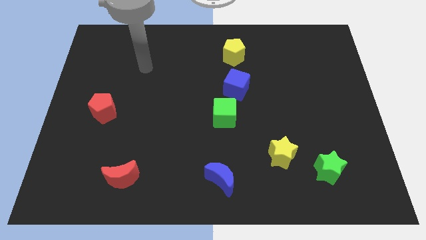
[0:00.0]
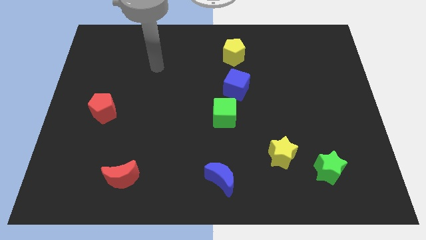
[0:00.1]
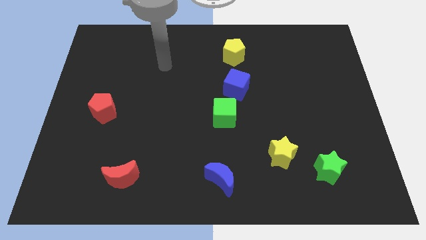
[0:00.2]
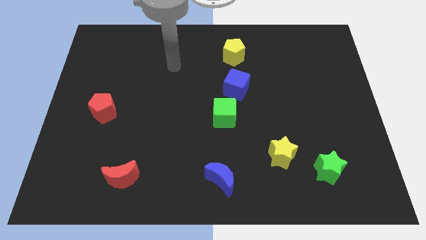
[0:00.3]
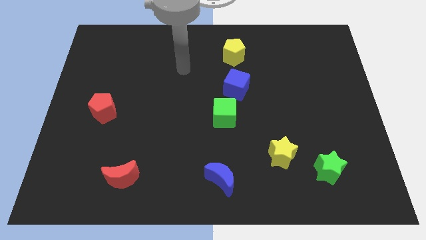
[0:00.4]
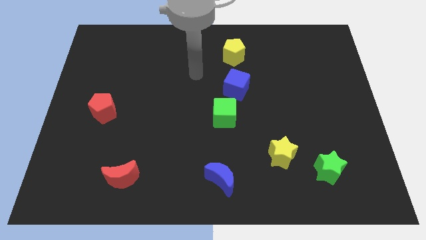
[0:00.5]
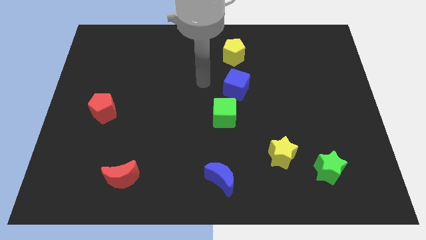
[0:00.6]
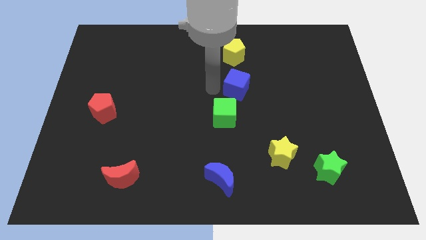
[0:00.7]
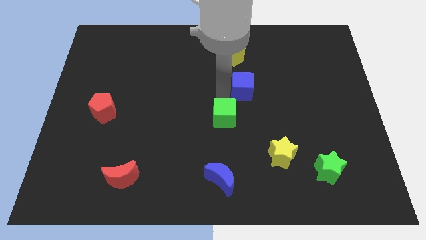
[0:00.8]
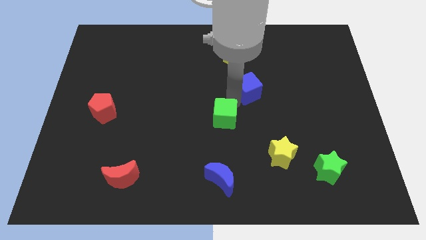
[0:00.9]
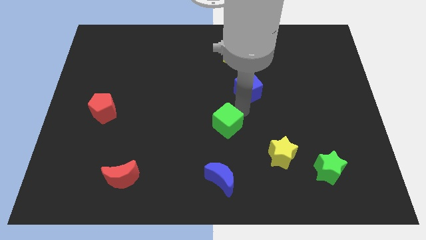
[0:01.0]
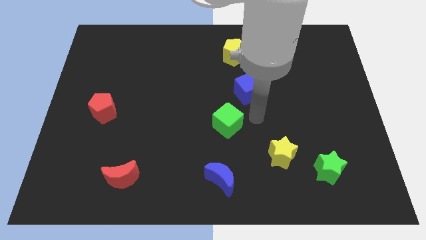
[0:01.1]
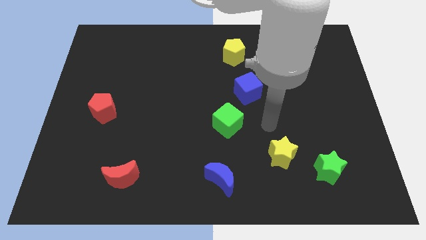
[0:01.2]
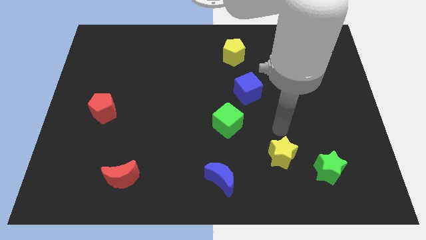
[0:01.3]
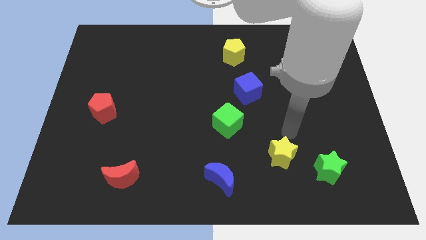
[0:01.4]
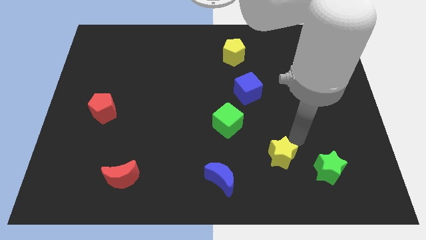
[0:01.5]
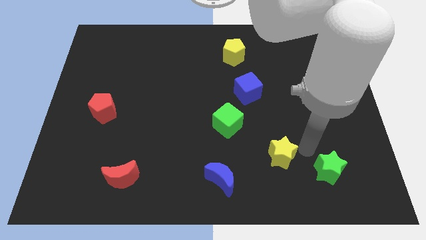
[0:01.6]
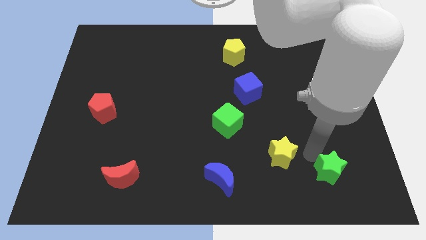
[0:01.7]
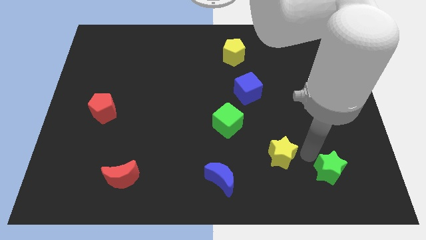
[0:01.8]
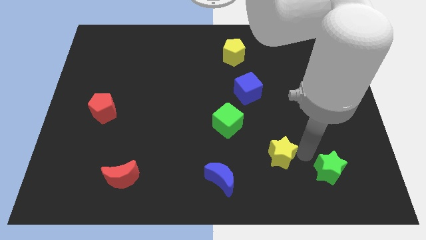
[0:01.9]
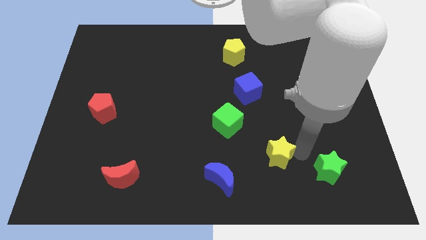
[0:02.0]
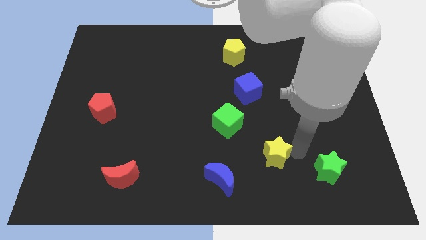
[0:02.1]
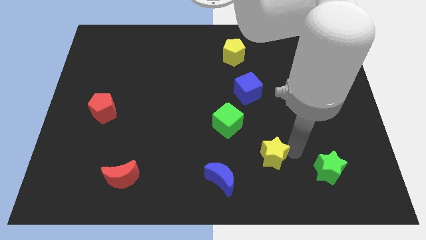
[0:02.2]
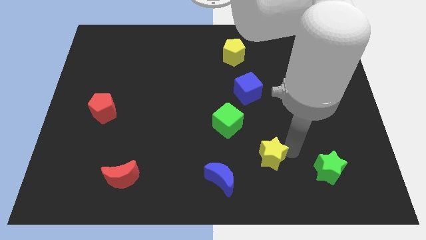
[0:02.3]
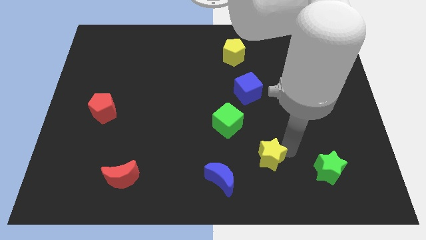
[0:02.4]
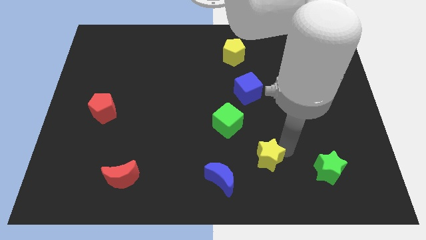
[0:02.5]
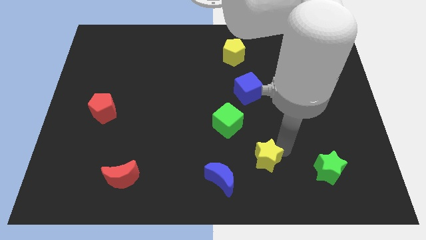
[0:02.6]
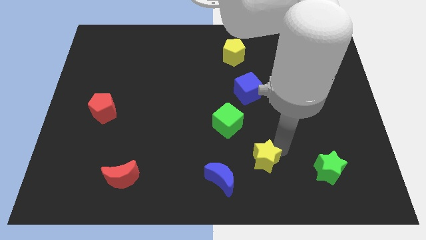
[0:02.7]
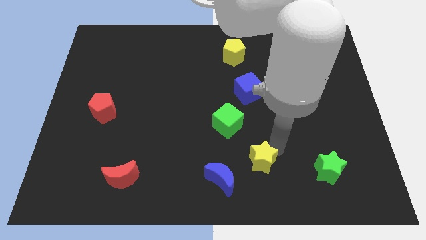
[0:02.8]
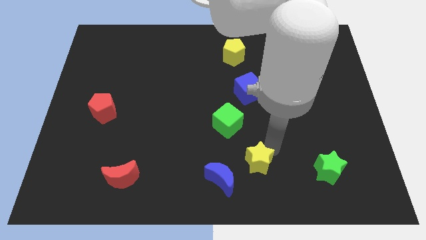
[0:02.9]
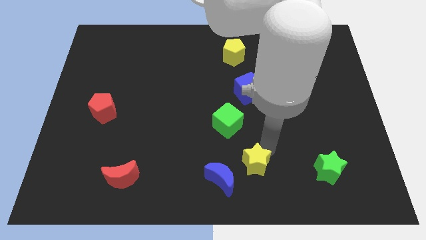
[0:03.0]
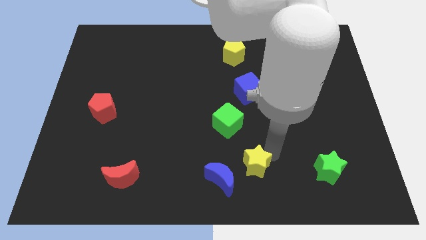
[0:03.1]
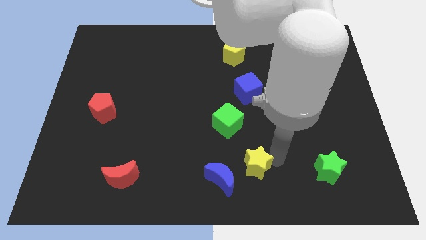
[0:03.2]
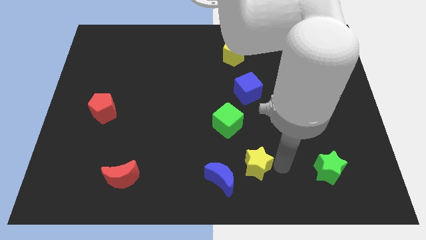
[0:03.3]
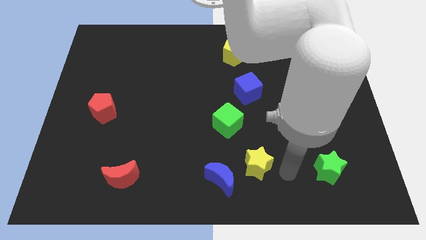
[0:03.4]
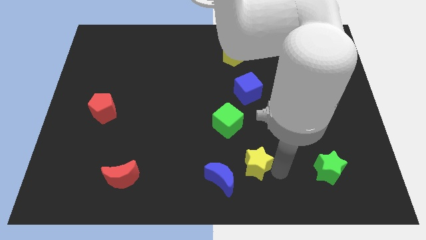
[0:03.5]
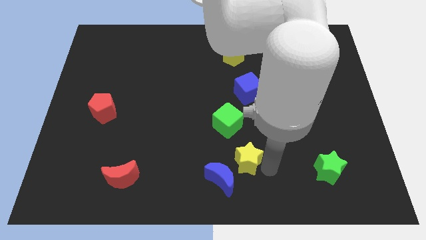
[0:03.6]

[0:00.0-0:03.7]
slightly move the yellow star to the left

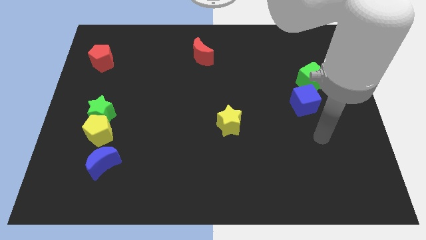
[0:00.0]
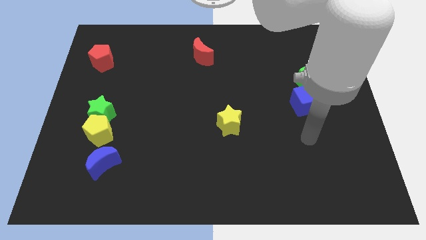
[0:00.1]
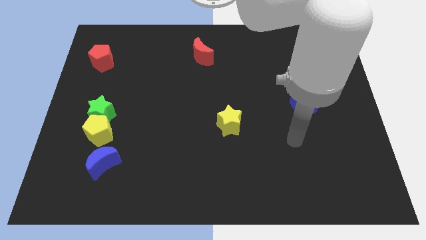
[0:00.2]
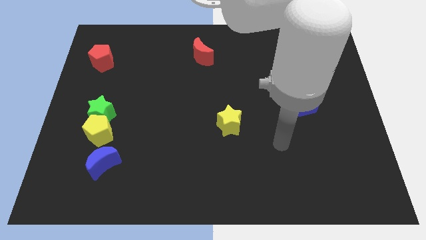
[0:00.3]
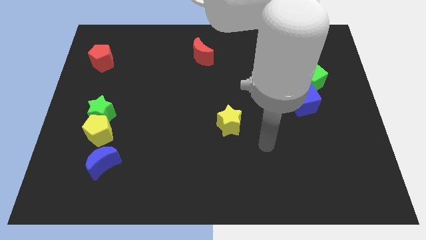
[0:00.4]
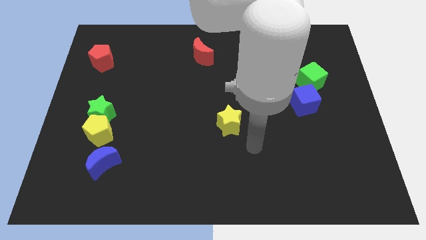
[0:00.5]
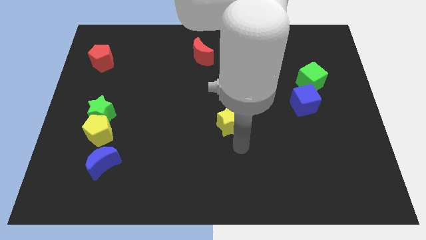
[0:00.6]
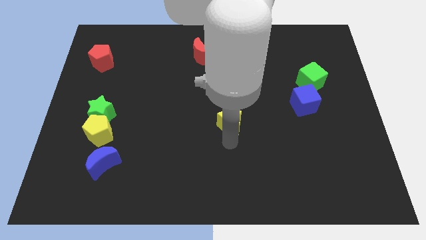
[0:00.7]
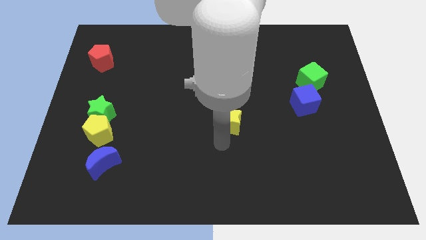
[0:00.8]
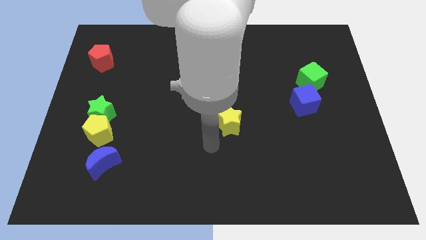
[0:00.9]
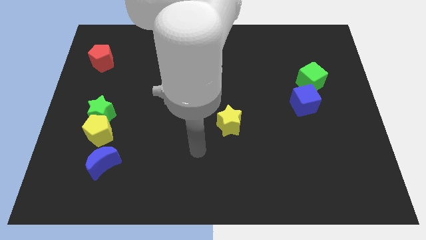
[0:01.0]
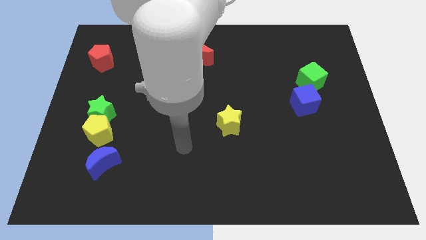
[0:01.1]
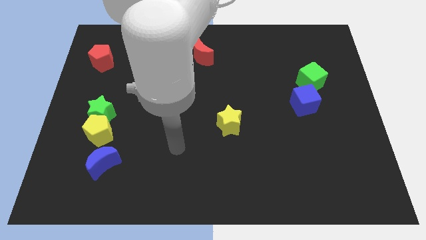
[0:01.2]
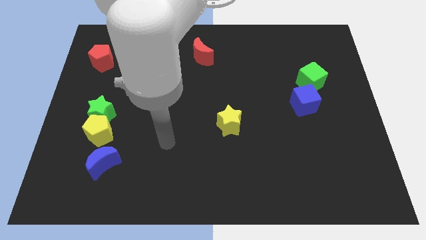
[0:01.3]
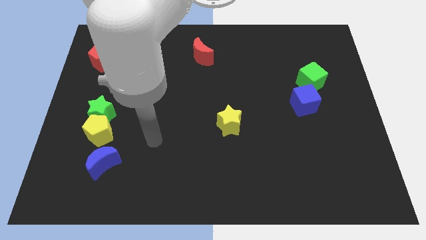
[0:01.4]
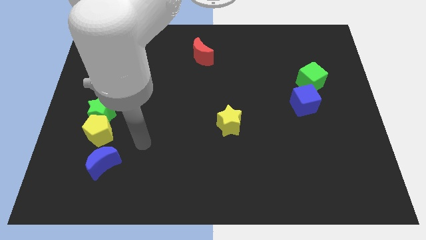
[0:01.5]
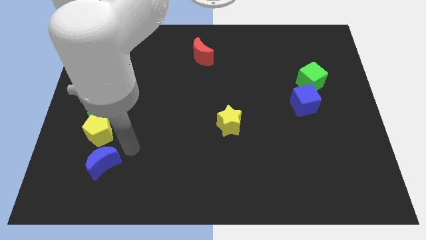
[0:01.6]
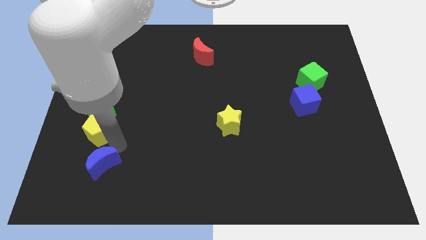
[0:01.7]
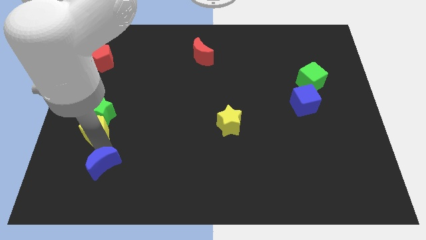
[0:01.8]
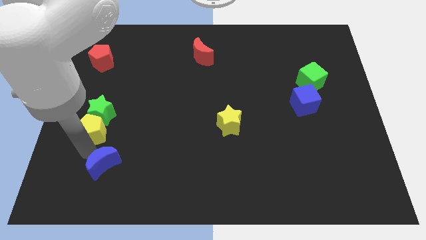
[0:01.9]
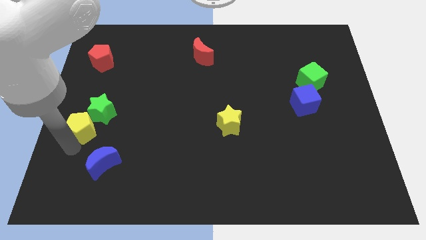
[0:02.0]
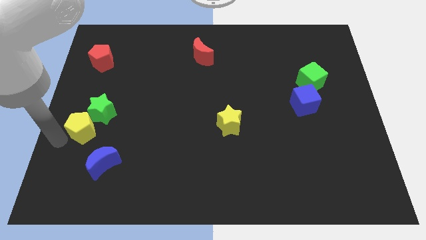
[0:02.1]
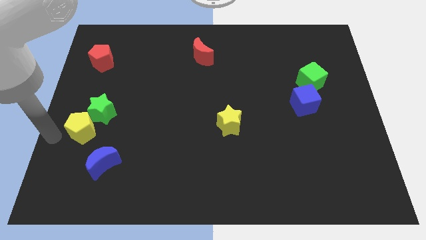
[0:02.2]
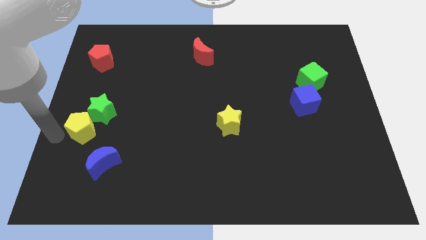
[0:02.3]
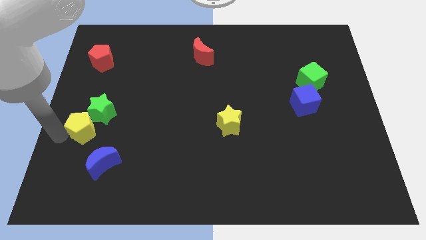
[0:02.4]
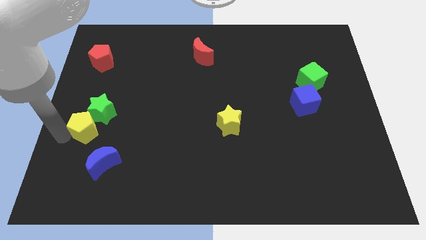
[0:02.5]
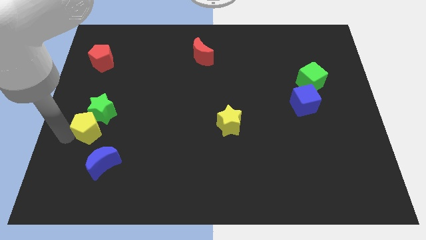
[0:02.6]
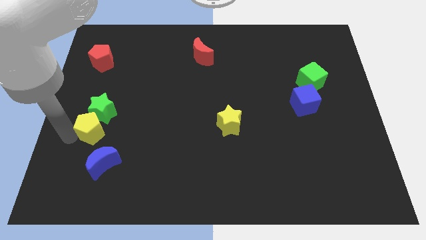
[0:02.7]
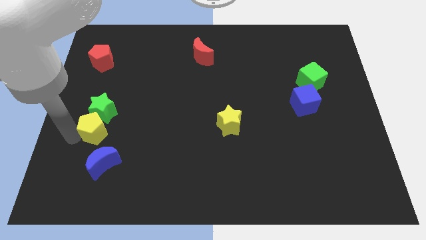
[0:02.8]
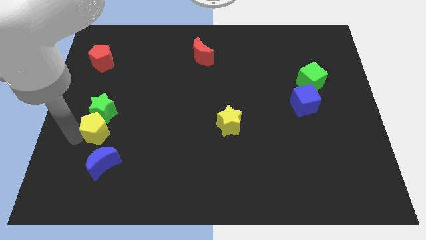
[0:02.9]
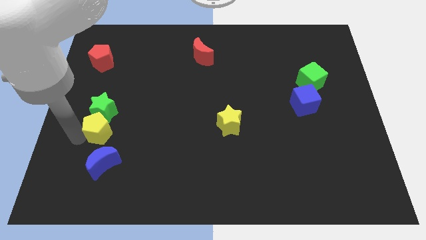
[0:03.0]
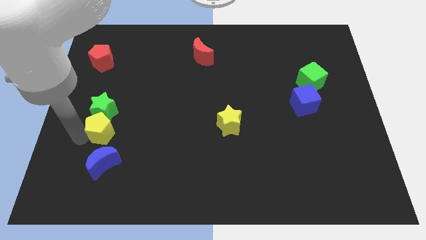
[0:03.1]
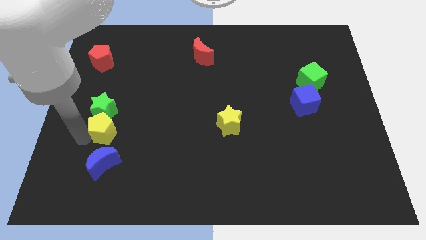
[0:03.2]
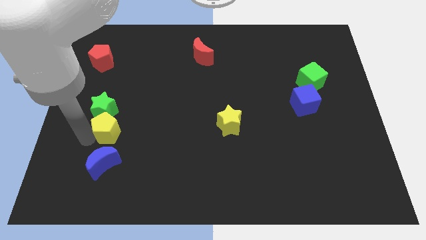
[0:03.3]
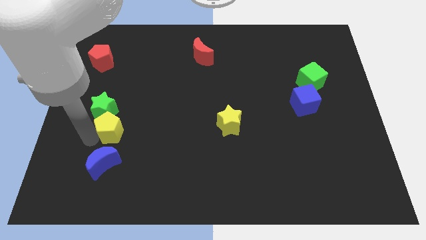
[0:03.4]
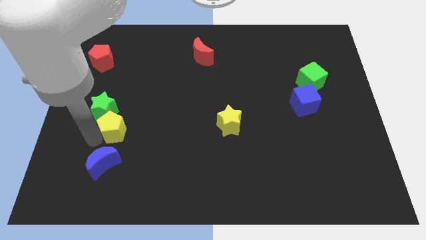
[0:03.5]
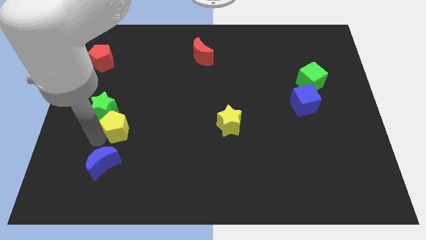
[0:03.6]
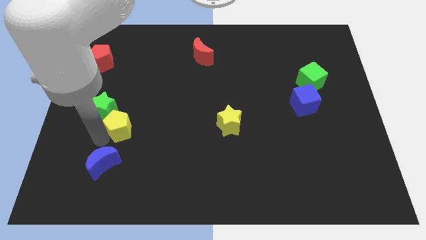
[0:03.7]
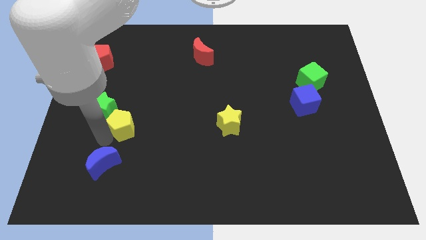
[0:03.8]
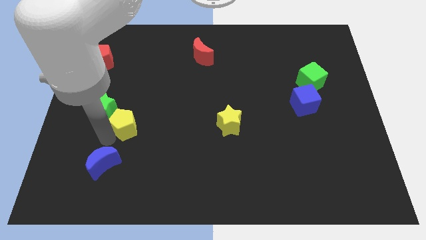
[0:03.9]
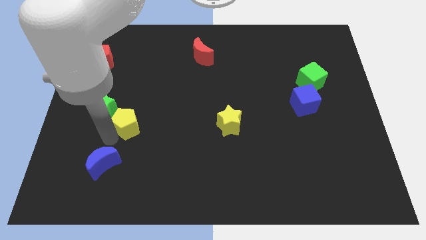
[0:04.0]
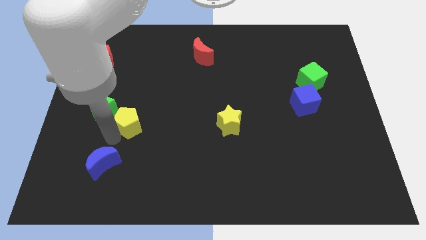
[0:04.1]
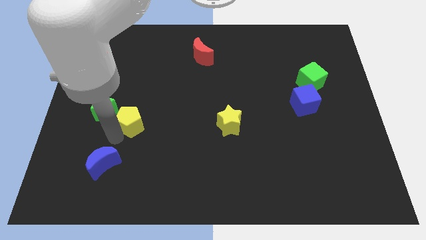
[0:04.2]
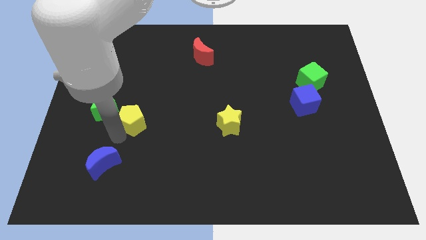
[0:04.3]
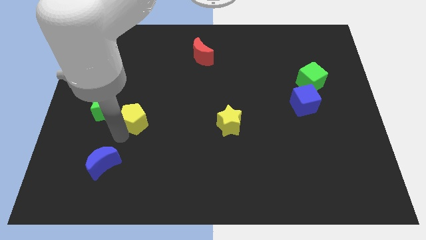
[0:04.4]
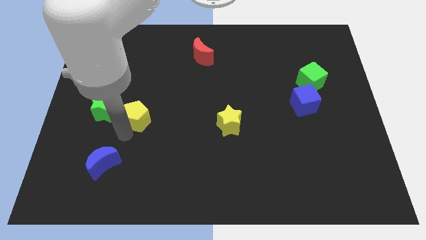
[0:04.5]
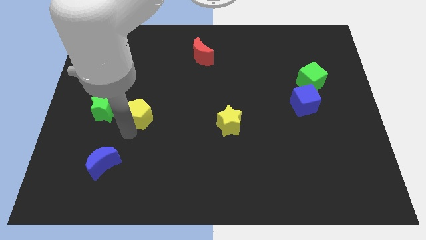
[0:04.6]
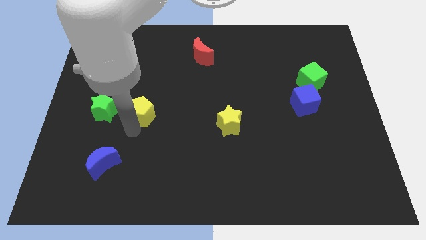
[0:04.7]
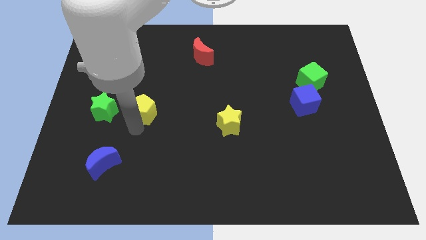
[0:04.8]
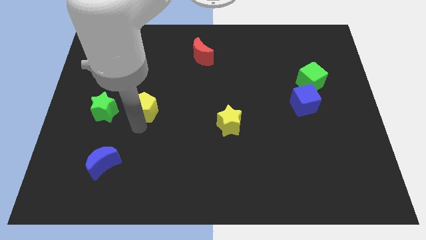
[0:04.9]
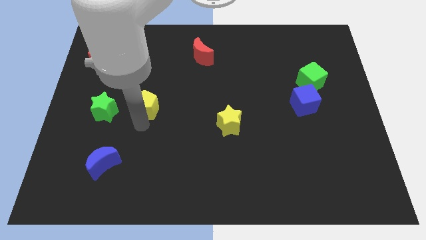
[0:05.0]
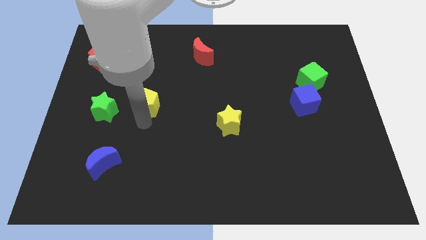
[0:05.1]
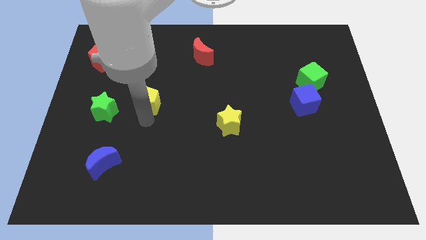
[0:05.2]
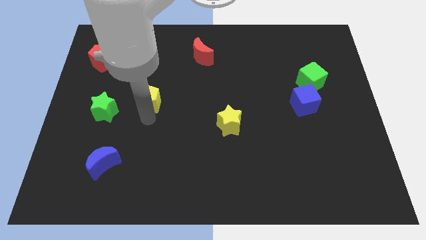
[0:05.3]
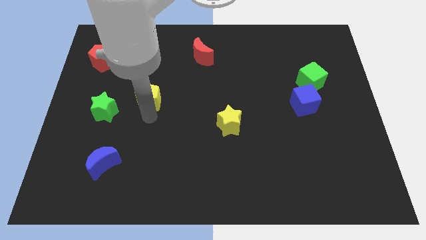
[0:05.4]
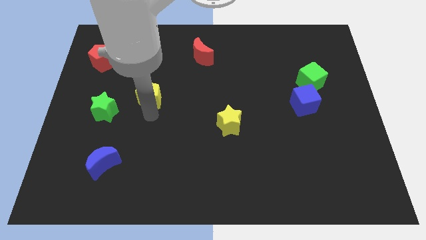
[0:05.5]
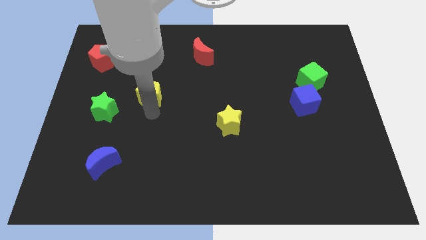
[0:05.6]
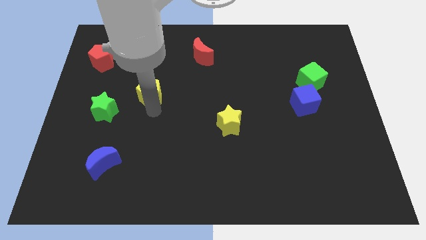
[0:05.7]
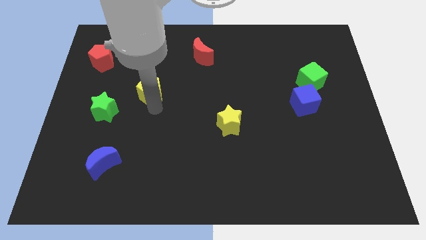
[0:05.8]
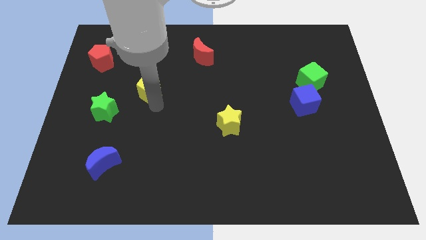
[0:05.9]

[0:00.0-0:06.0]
push the yellow pentagon upwards slightly
